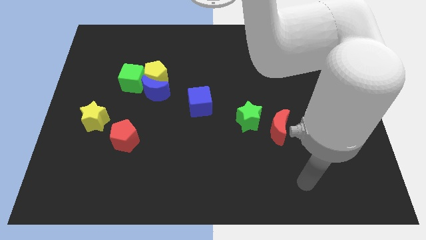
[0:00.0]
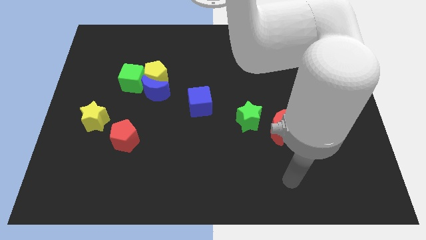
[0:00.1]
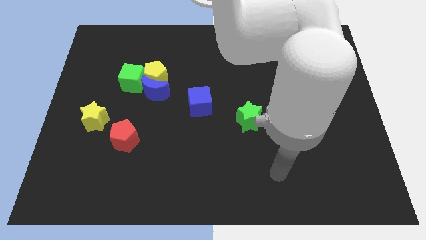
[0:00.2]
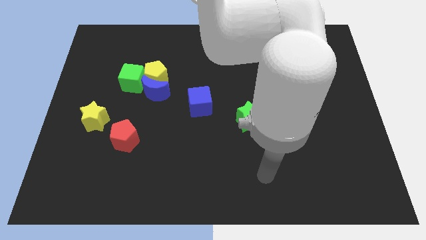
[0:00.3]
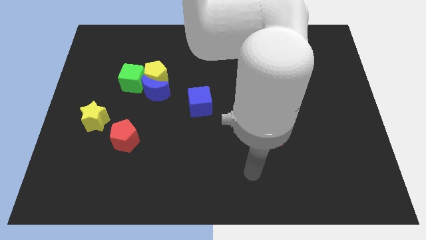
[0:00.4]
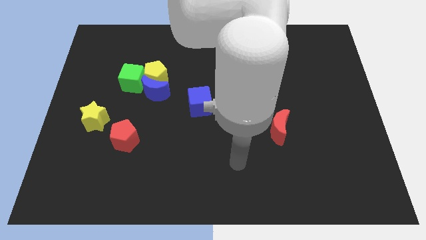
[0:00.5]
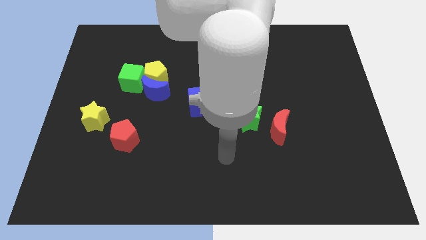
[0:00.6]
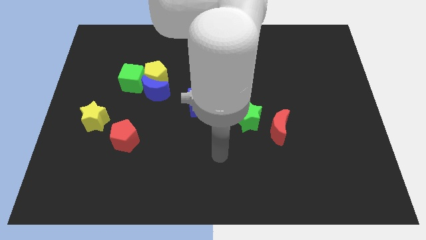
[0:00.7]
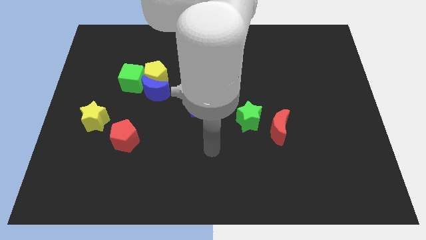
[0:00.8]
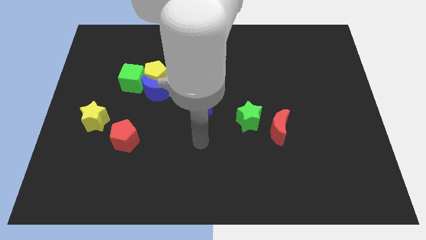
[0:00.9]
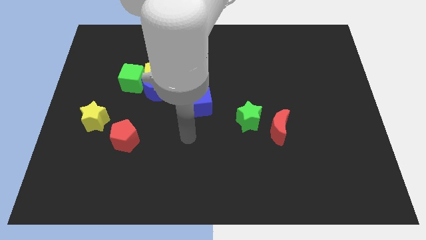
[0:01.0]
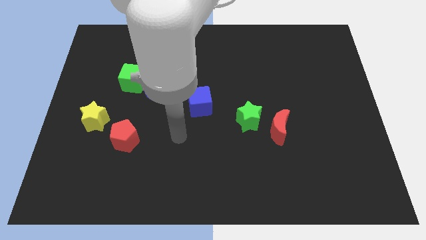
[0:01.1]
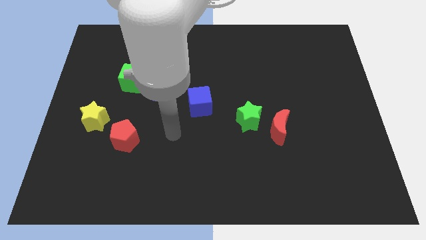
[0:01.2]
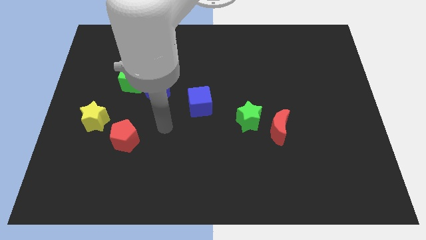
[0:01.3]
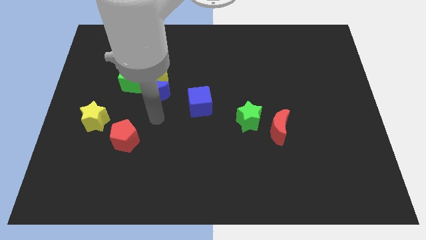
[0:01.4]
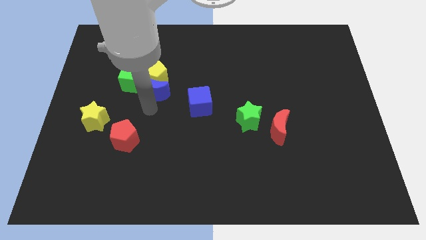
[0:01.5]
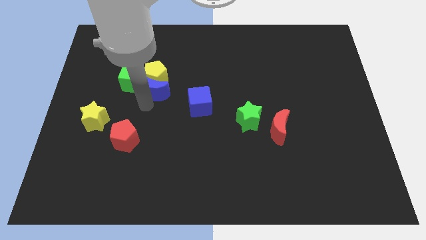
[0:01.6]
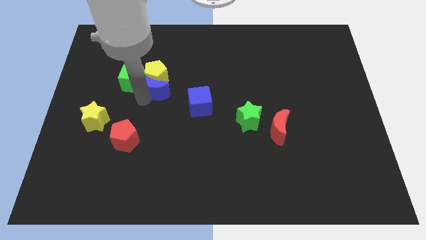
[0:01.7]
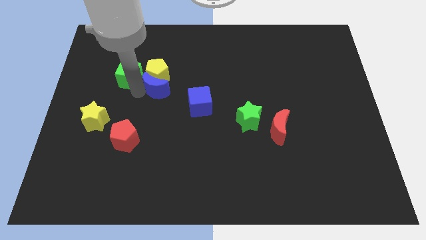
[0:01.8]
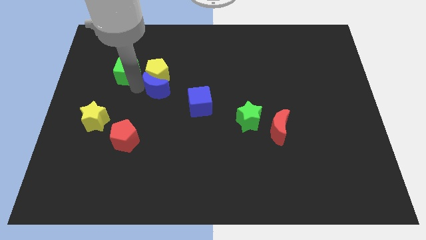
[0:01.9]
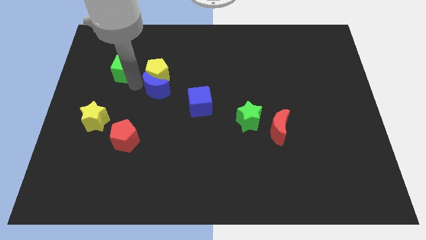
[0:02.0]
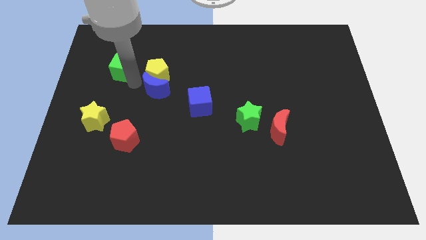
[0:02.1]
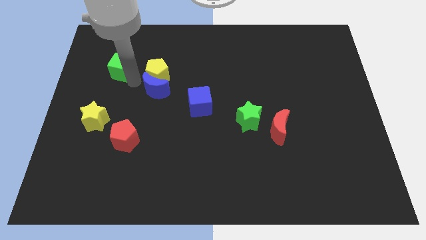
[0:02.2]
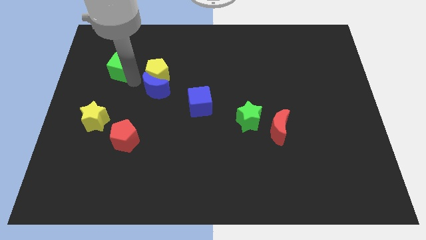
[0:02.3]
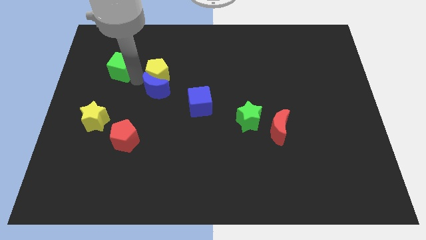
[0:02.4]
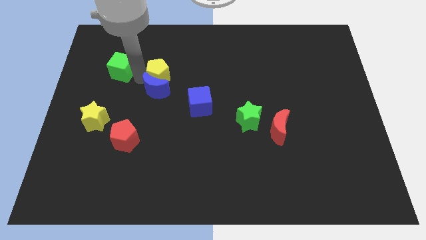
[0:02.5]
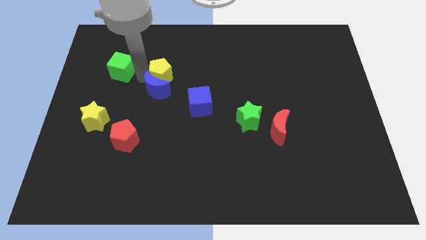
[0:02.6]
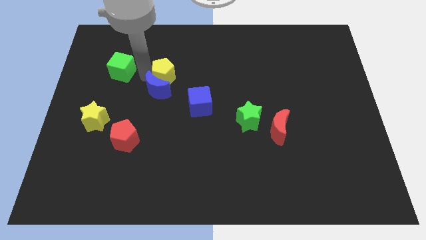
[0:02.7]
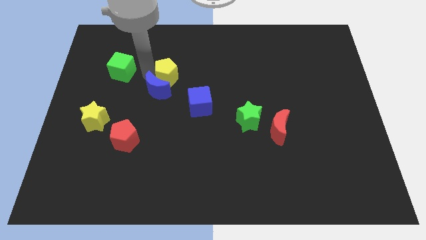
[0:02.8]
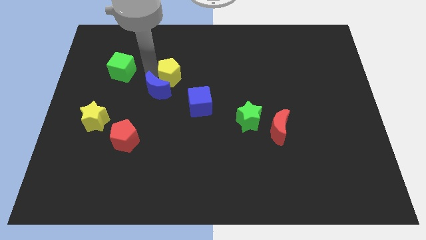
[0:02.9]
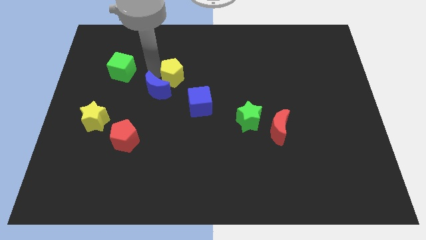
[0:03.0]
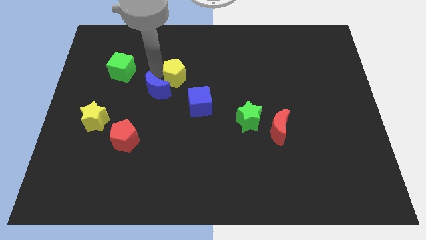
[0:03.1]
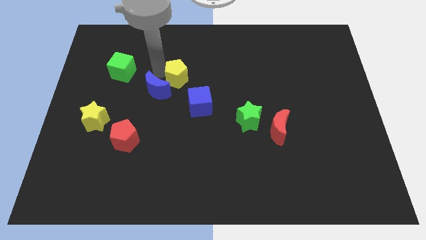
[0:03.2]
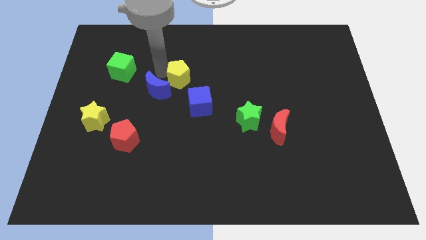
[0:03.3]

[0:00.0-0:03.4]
move the yellow pentagon away from the blue moon and green cube

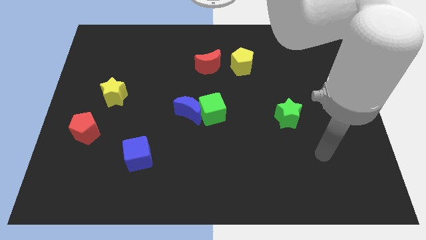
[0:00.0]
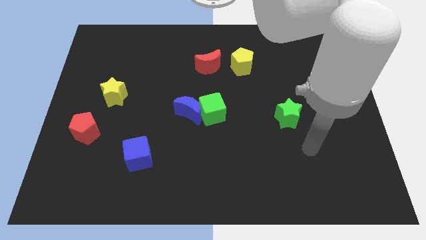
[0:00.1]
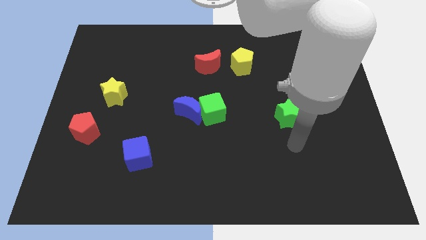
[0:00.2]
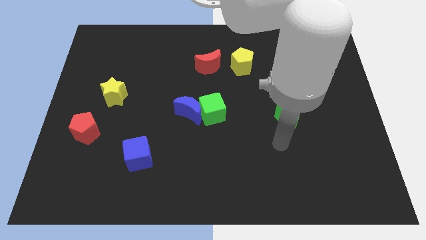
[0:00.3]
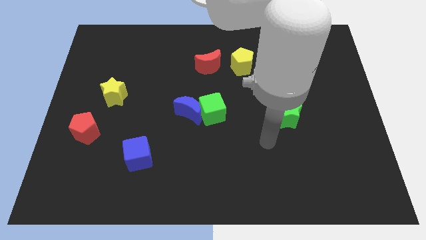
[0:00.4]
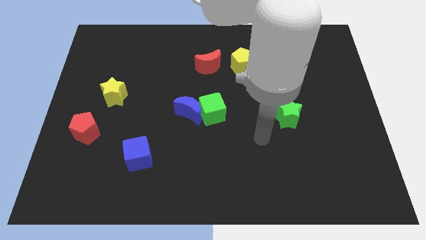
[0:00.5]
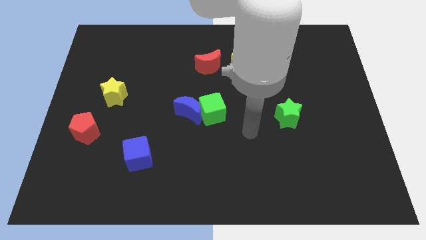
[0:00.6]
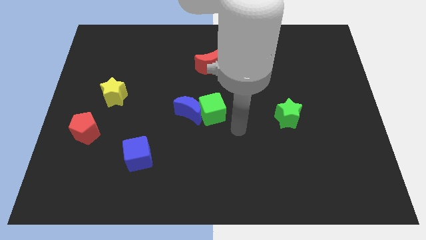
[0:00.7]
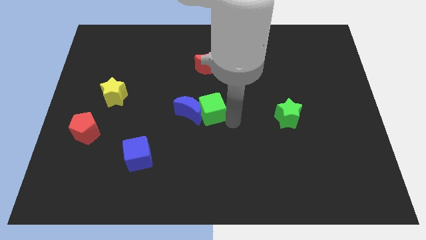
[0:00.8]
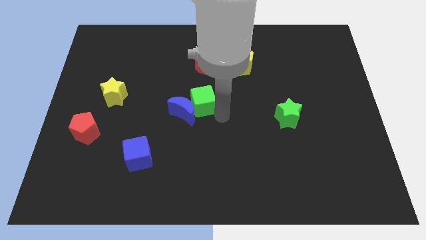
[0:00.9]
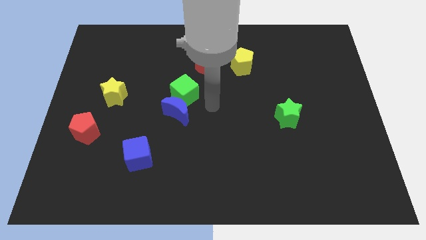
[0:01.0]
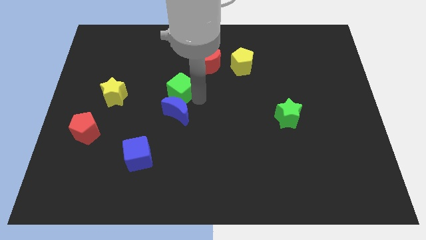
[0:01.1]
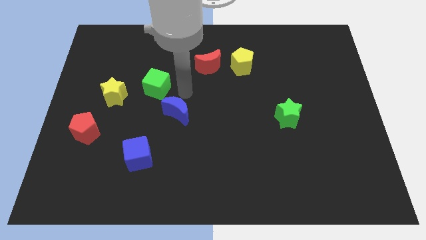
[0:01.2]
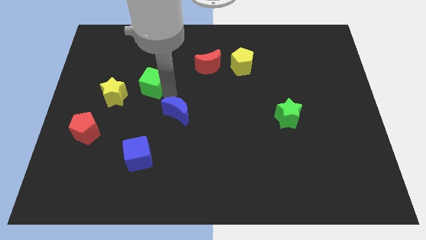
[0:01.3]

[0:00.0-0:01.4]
separate the blue moon from the green cube

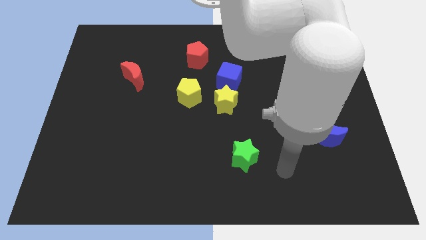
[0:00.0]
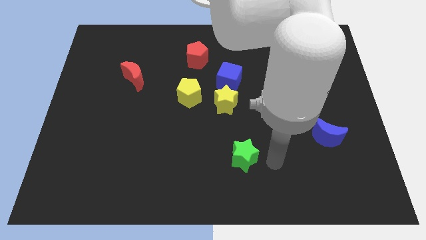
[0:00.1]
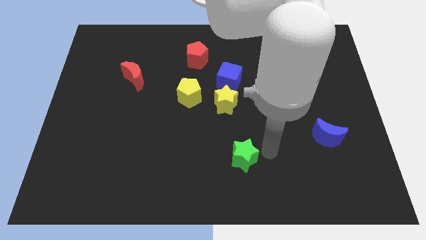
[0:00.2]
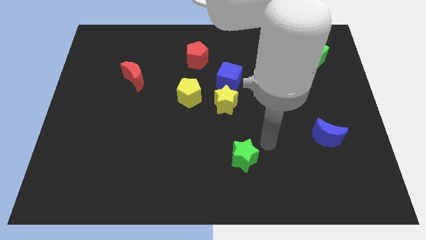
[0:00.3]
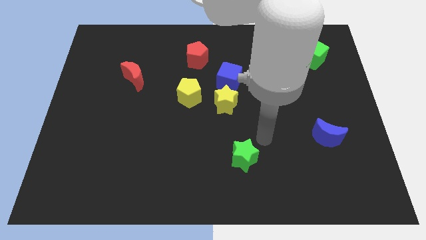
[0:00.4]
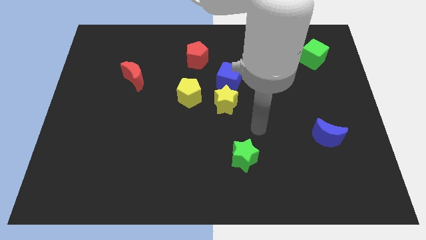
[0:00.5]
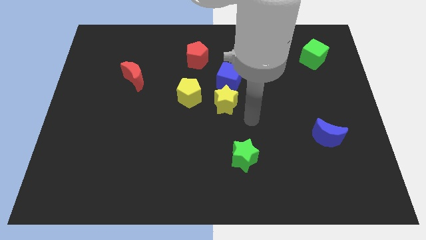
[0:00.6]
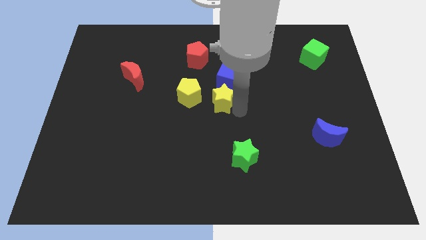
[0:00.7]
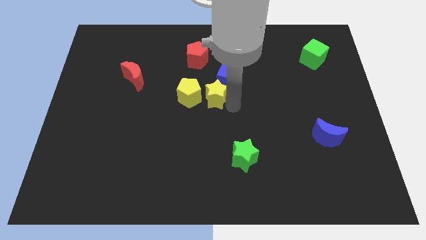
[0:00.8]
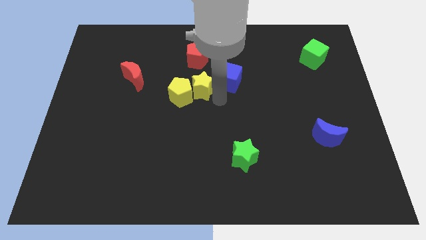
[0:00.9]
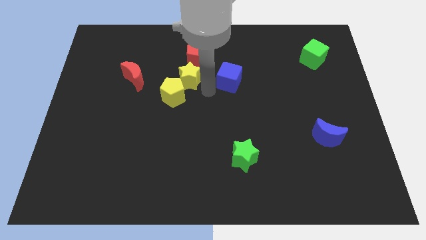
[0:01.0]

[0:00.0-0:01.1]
pull the blue cube apart from the yellow star

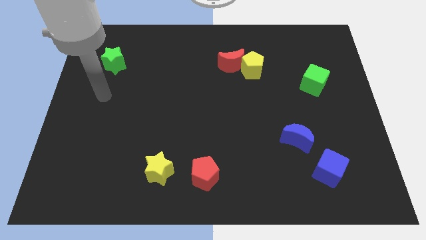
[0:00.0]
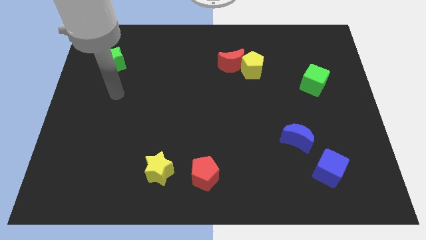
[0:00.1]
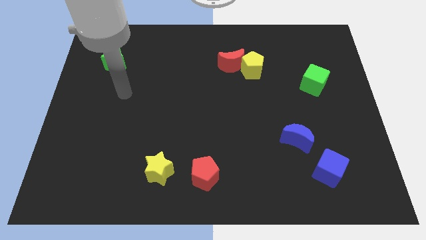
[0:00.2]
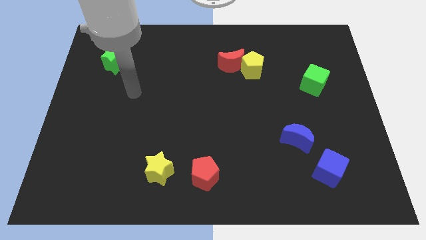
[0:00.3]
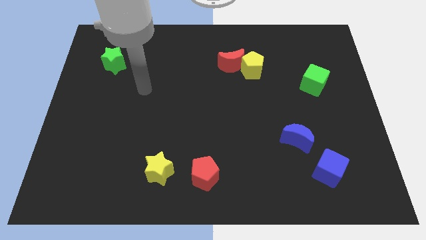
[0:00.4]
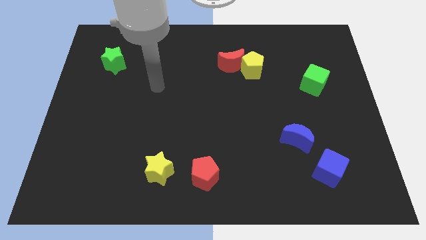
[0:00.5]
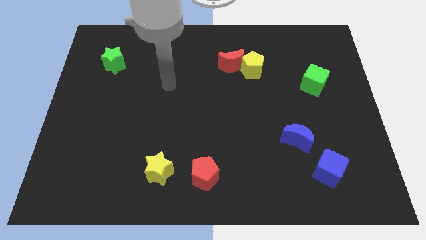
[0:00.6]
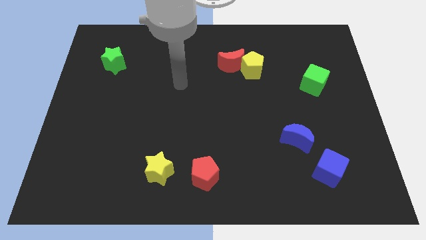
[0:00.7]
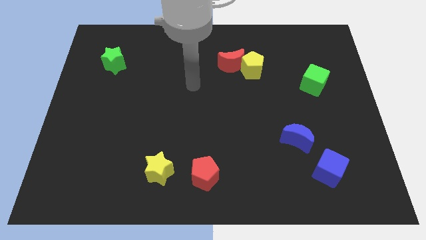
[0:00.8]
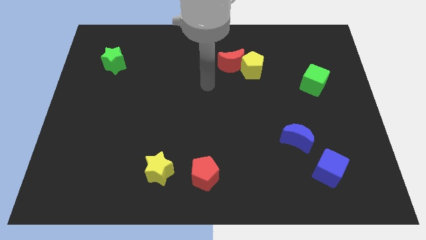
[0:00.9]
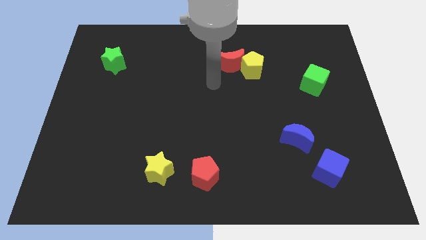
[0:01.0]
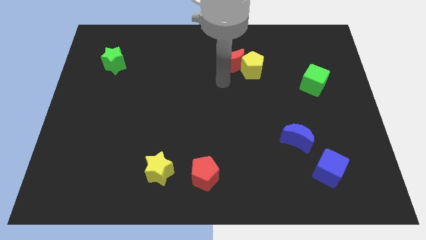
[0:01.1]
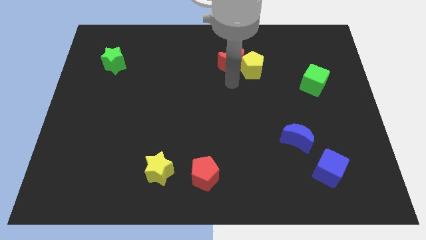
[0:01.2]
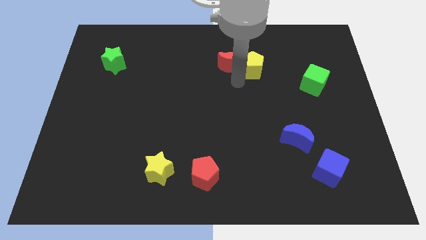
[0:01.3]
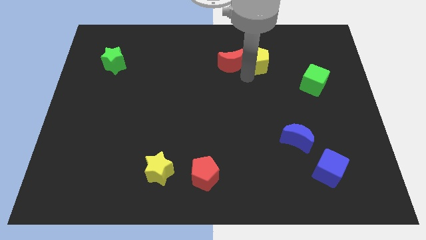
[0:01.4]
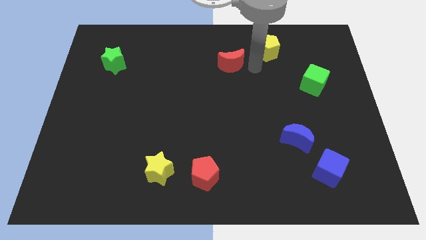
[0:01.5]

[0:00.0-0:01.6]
pull the red moon apart from the yellow pentagon

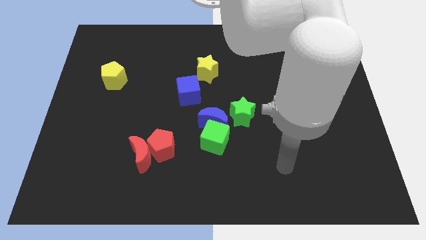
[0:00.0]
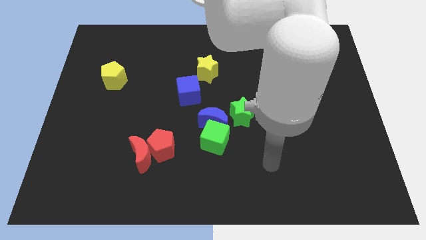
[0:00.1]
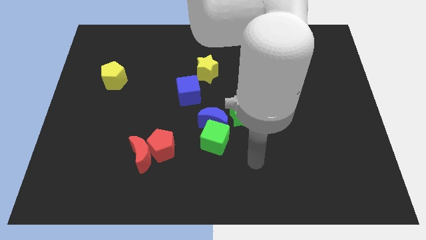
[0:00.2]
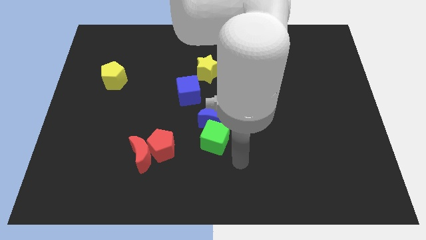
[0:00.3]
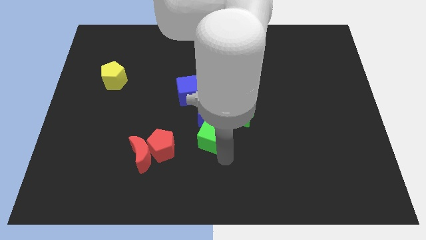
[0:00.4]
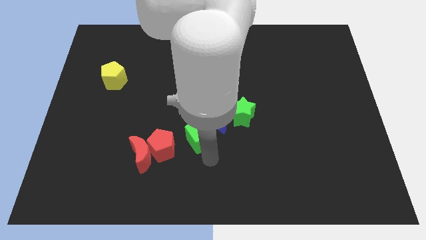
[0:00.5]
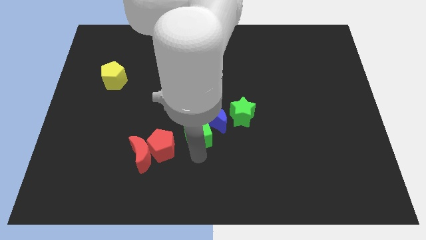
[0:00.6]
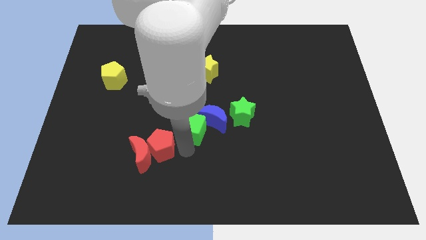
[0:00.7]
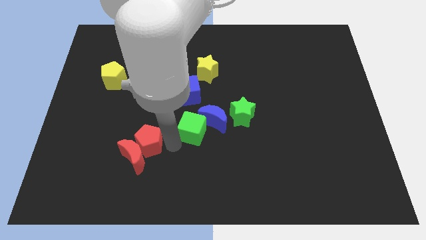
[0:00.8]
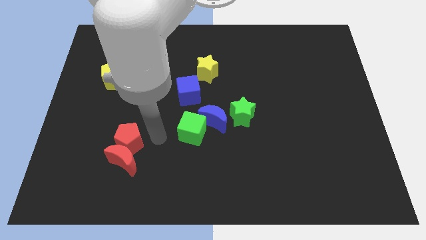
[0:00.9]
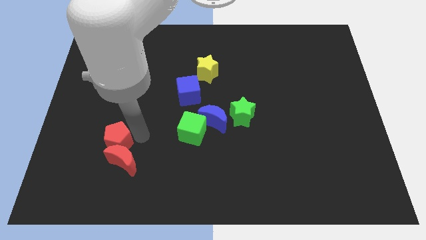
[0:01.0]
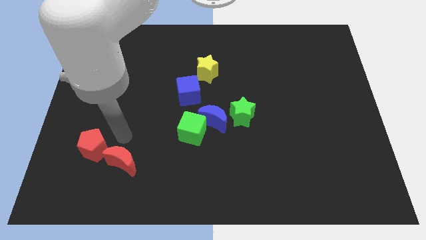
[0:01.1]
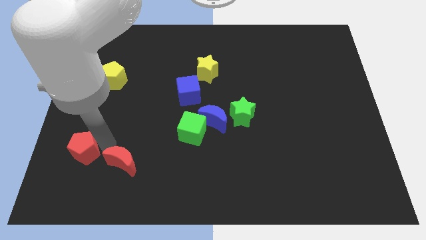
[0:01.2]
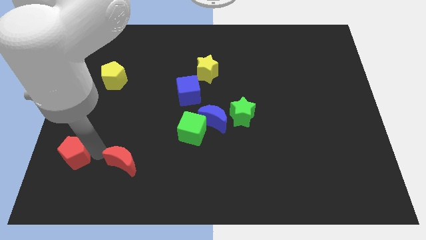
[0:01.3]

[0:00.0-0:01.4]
separate the red moon from the red pentagon

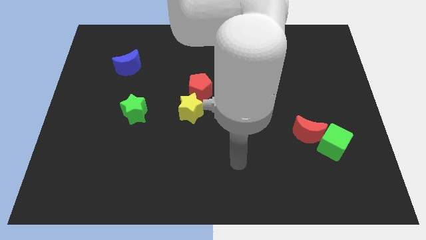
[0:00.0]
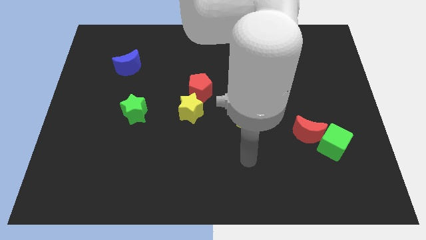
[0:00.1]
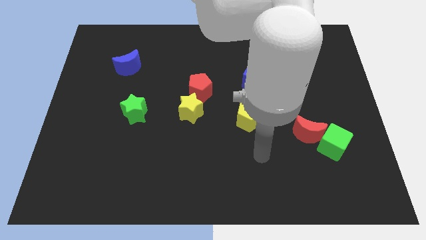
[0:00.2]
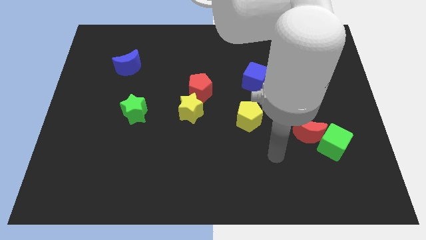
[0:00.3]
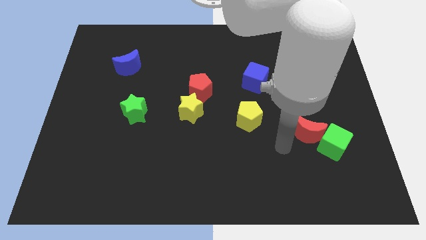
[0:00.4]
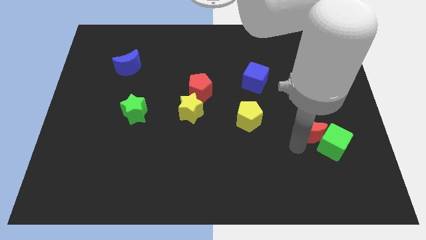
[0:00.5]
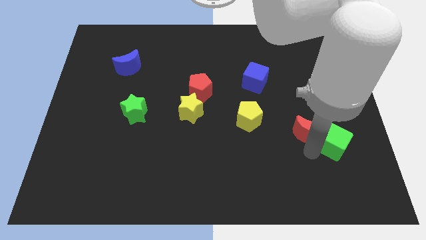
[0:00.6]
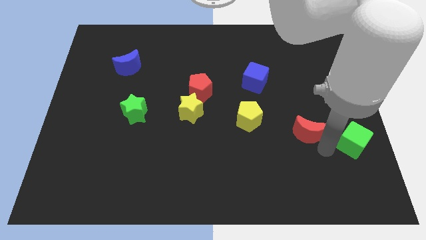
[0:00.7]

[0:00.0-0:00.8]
pull the red moon apart from the green cube
